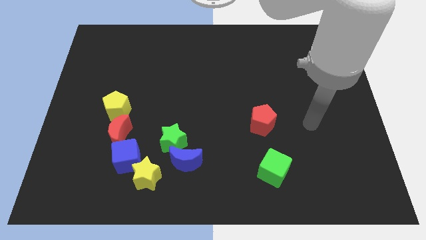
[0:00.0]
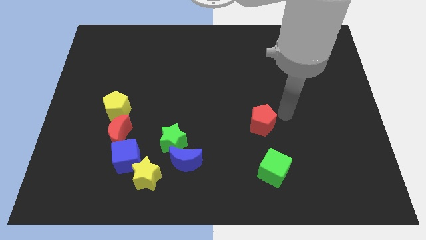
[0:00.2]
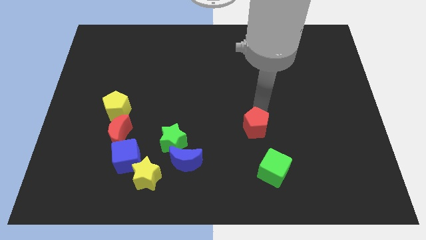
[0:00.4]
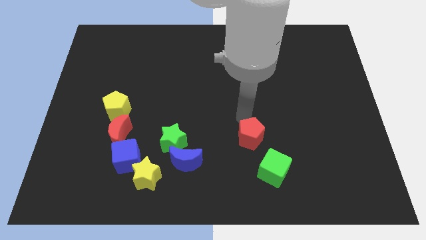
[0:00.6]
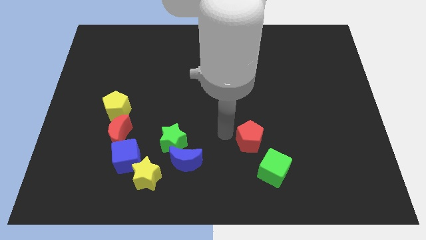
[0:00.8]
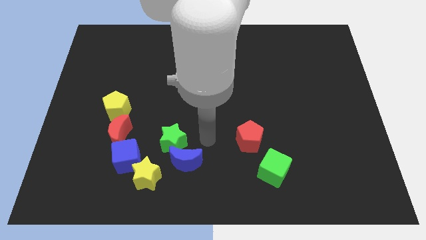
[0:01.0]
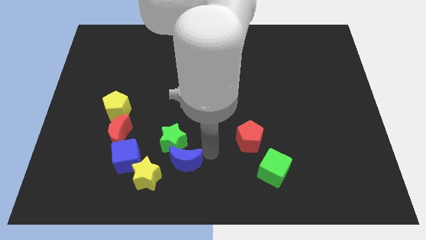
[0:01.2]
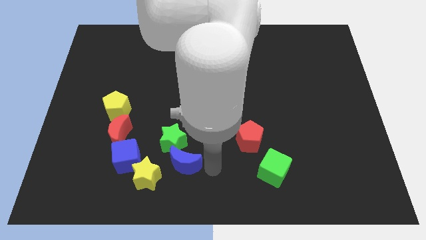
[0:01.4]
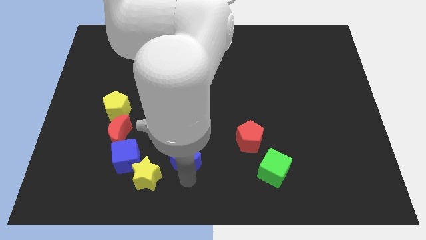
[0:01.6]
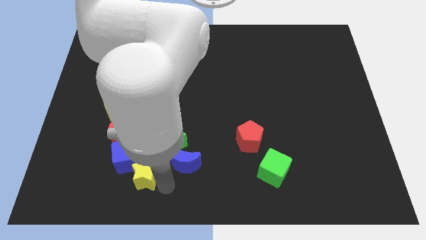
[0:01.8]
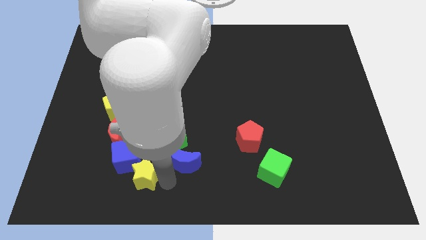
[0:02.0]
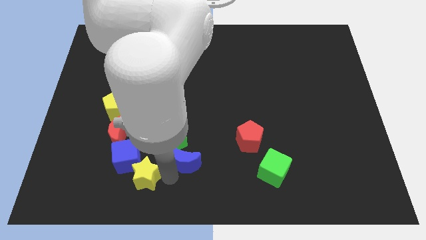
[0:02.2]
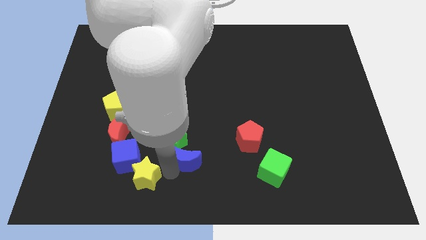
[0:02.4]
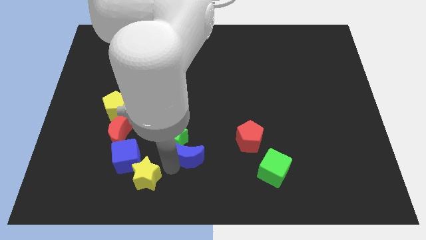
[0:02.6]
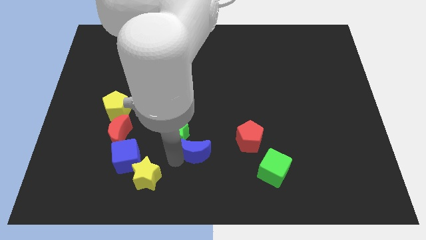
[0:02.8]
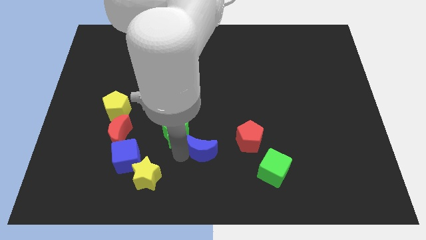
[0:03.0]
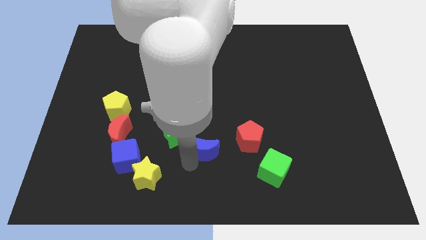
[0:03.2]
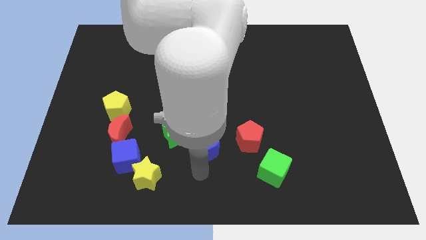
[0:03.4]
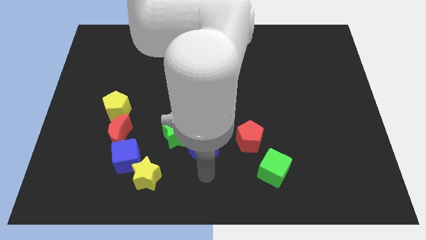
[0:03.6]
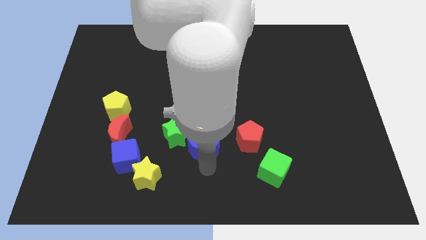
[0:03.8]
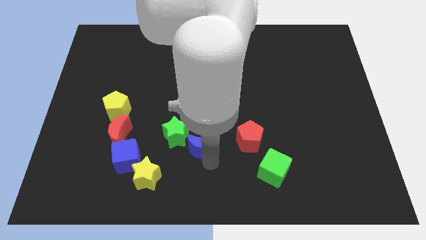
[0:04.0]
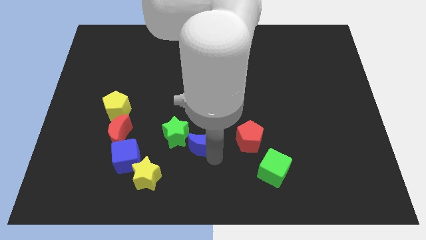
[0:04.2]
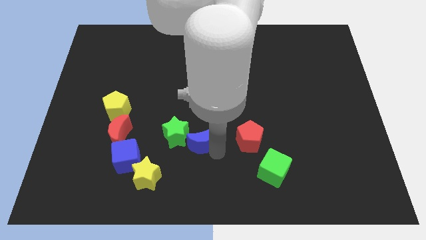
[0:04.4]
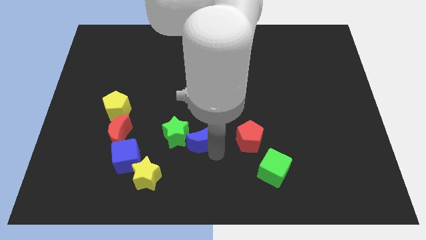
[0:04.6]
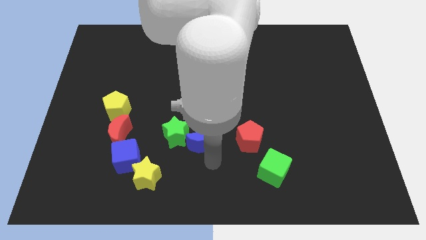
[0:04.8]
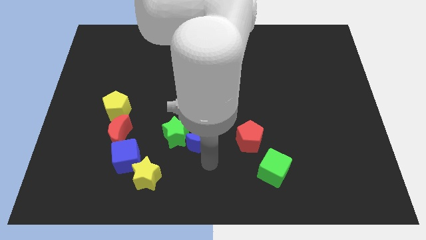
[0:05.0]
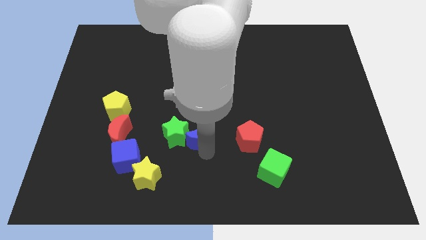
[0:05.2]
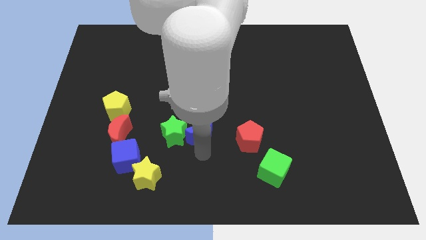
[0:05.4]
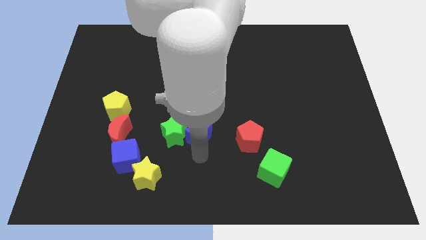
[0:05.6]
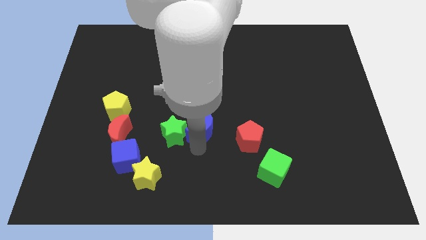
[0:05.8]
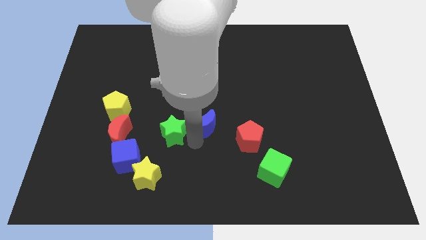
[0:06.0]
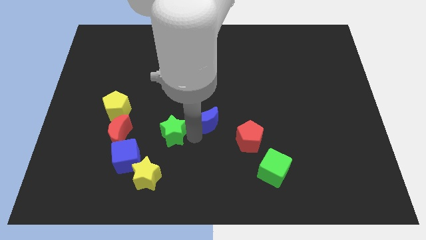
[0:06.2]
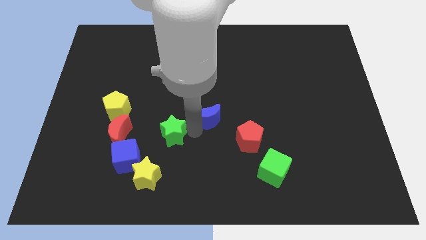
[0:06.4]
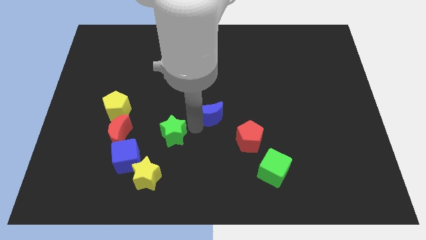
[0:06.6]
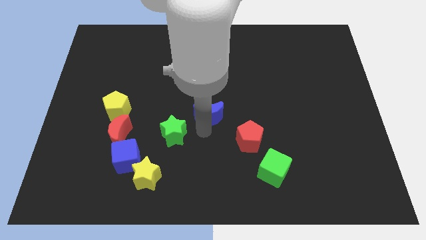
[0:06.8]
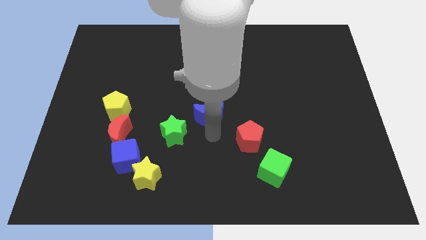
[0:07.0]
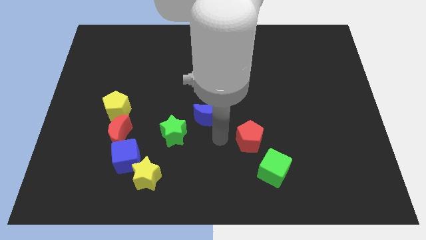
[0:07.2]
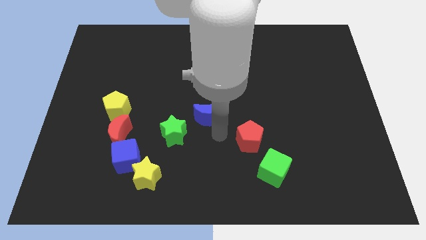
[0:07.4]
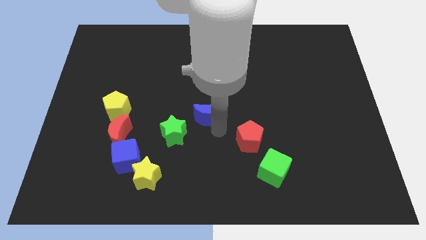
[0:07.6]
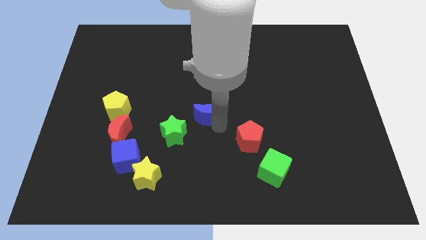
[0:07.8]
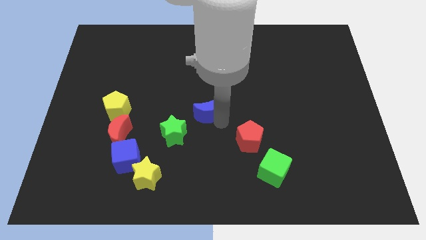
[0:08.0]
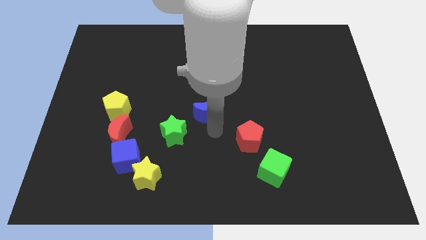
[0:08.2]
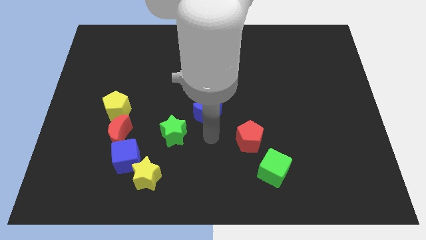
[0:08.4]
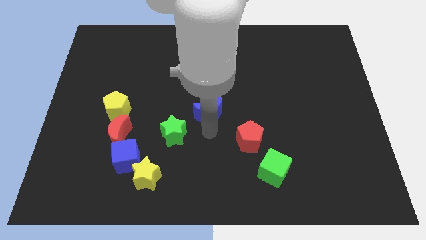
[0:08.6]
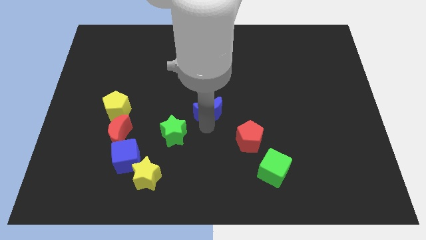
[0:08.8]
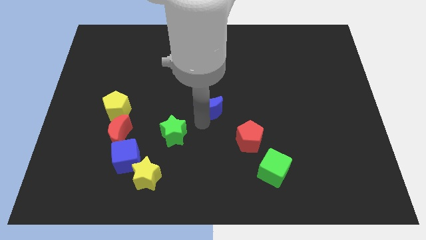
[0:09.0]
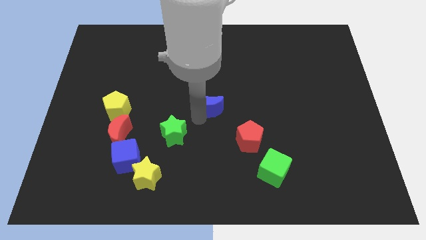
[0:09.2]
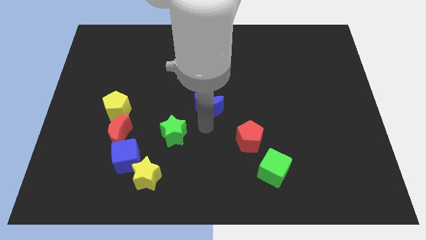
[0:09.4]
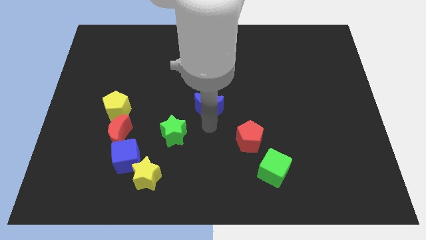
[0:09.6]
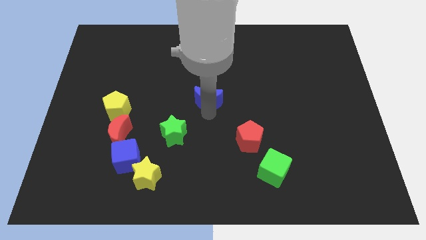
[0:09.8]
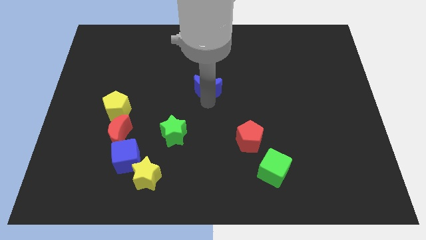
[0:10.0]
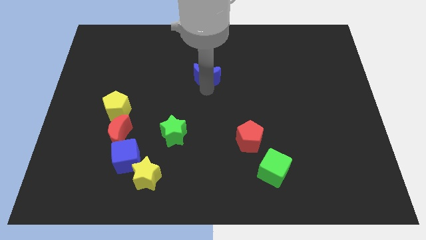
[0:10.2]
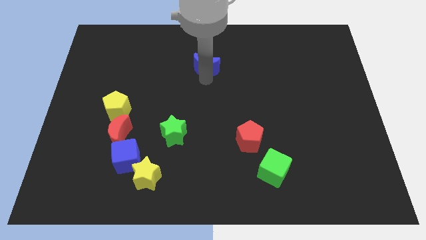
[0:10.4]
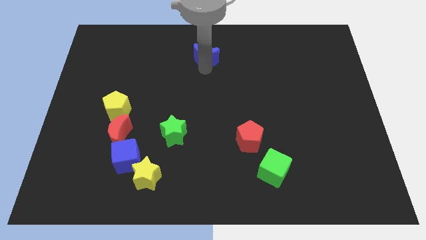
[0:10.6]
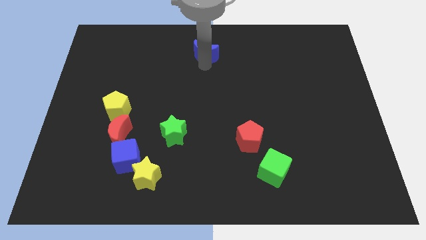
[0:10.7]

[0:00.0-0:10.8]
put the blue moon to the top side

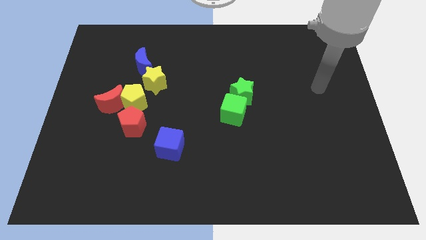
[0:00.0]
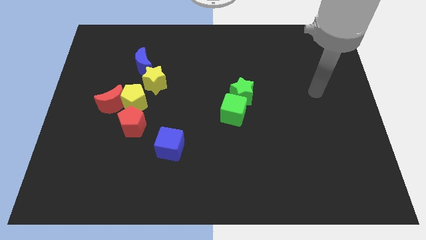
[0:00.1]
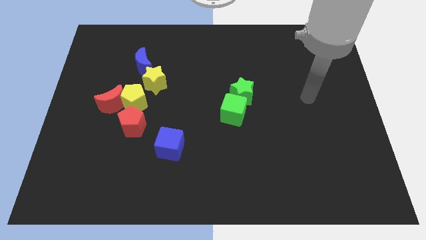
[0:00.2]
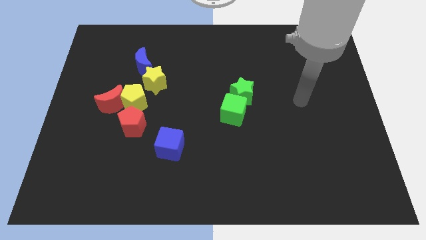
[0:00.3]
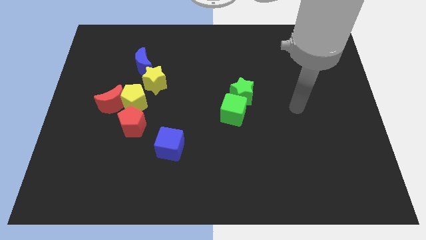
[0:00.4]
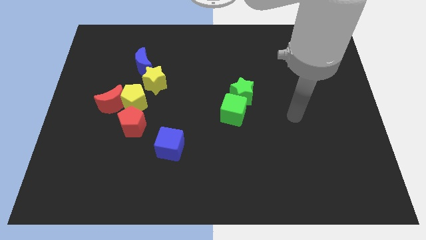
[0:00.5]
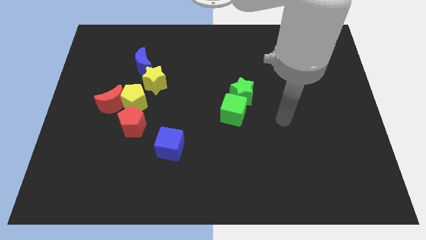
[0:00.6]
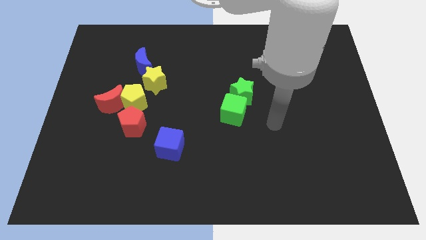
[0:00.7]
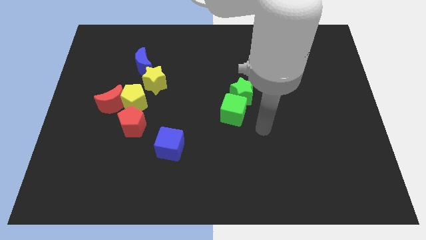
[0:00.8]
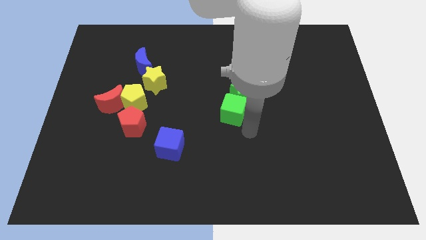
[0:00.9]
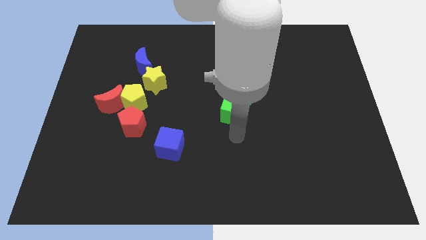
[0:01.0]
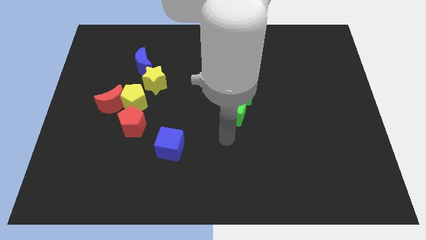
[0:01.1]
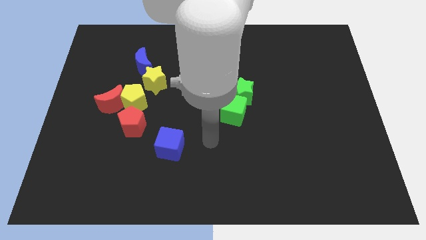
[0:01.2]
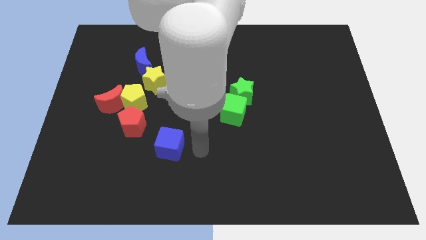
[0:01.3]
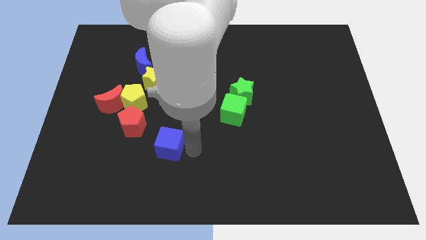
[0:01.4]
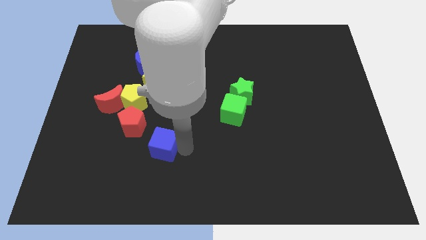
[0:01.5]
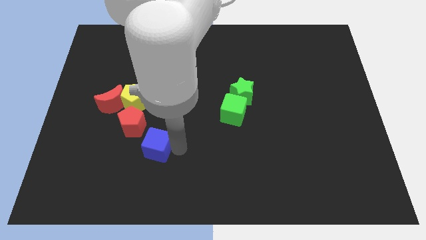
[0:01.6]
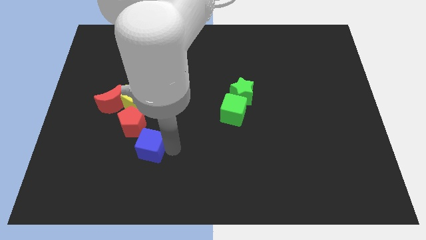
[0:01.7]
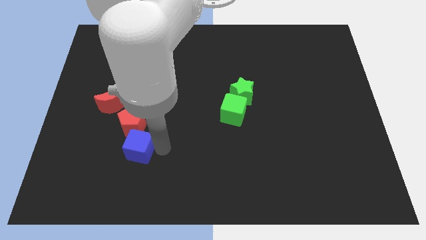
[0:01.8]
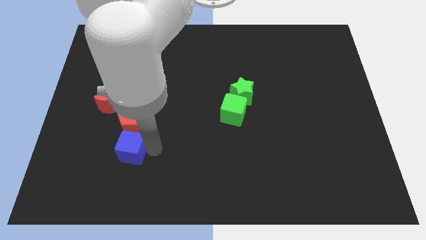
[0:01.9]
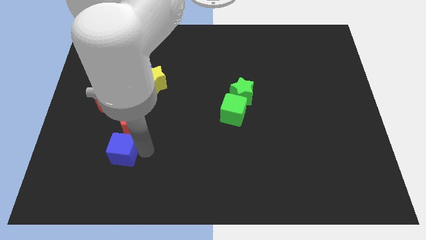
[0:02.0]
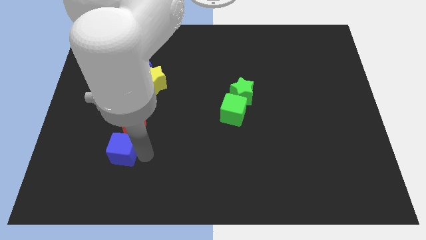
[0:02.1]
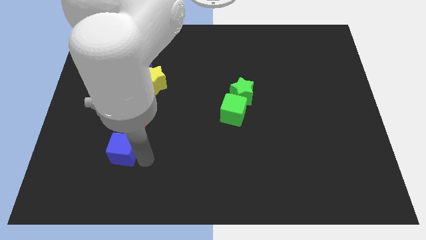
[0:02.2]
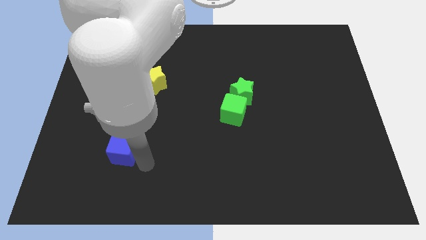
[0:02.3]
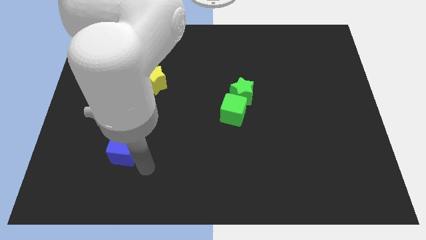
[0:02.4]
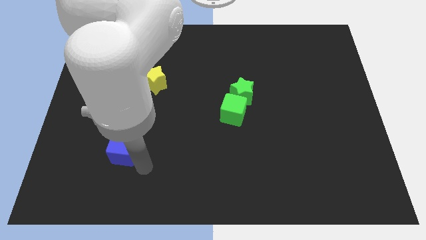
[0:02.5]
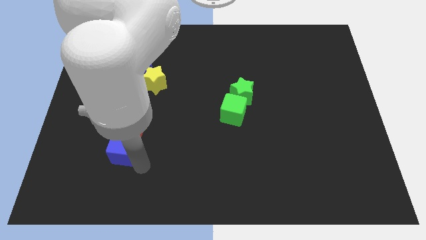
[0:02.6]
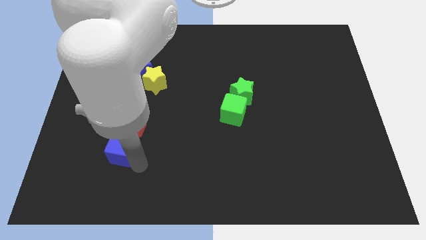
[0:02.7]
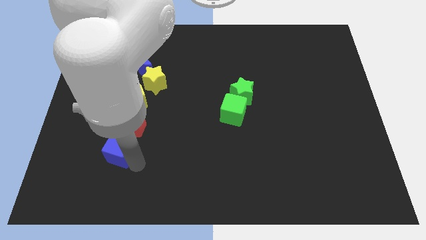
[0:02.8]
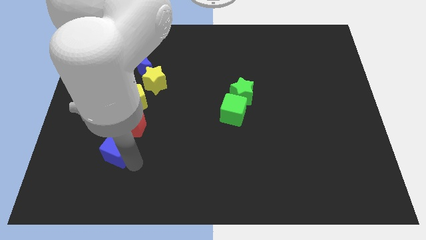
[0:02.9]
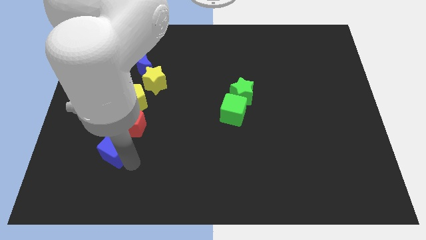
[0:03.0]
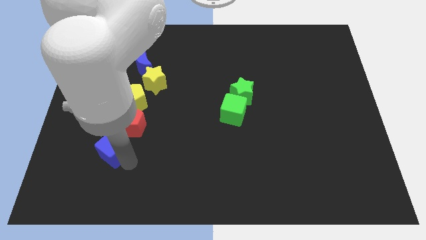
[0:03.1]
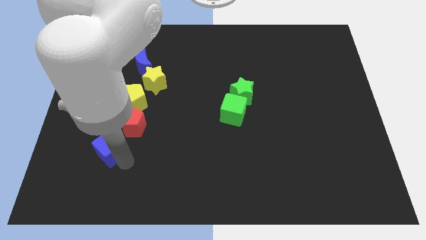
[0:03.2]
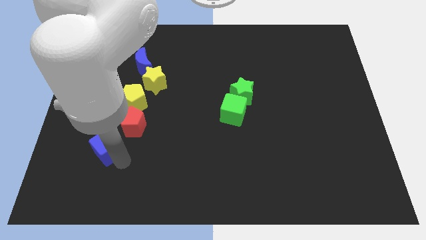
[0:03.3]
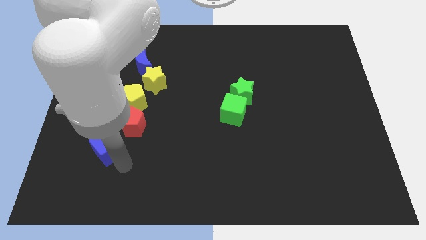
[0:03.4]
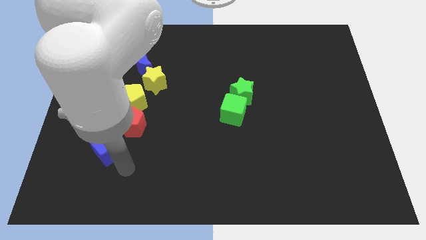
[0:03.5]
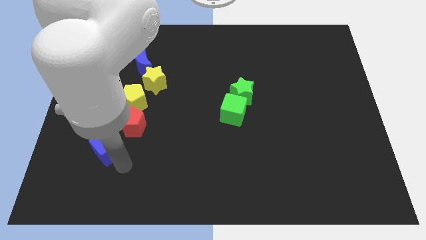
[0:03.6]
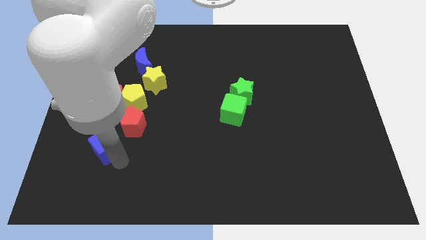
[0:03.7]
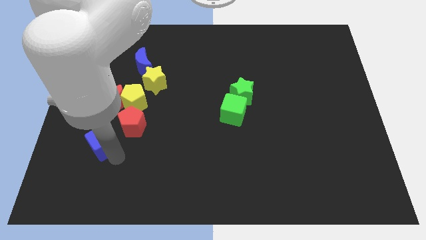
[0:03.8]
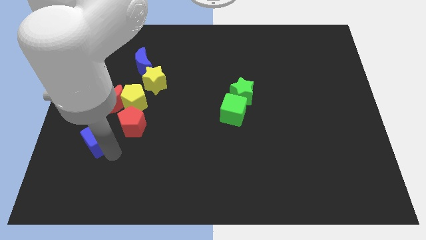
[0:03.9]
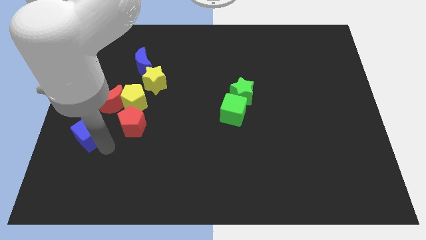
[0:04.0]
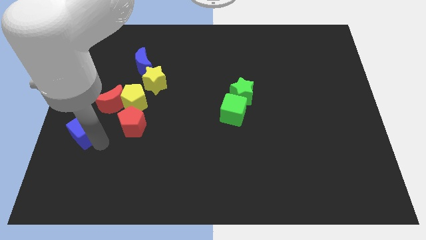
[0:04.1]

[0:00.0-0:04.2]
put the blue cube to the left side
